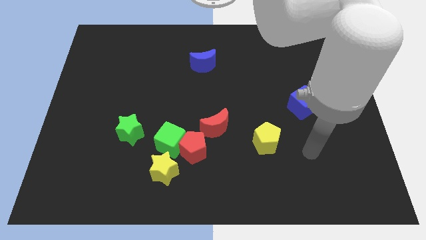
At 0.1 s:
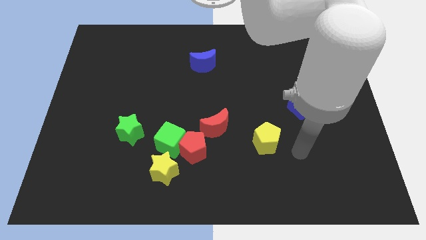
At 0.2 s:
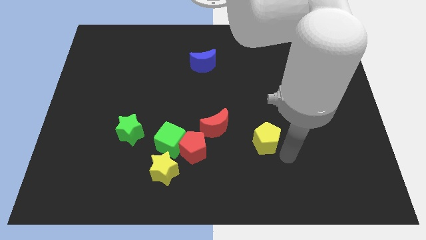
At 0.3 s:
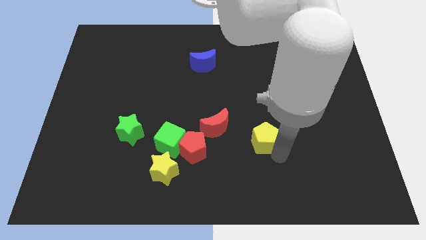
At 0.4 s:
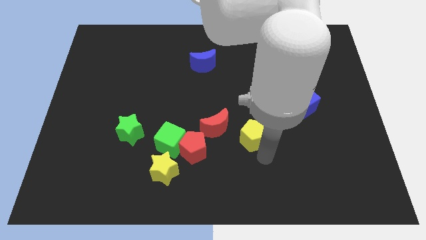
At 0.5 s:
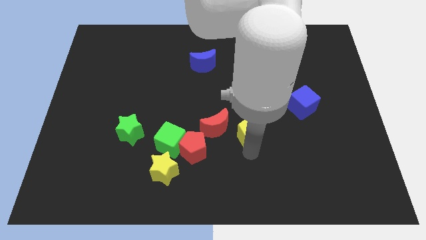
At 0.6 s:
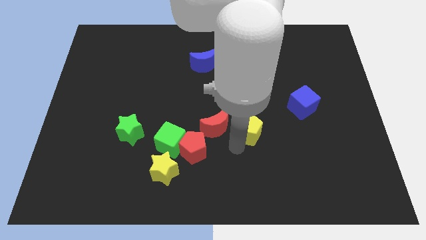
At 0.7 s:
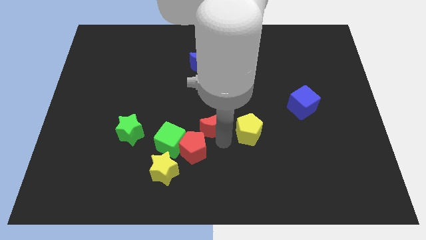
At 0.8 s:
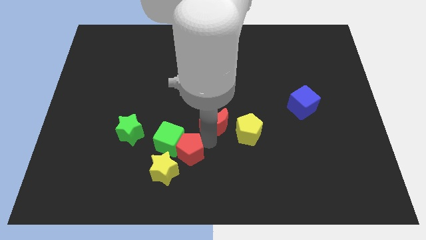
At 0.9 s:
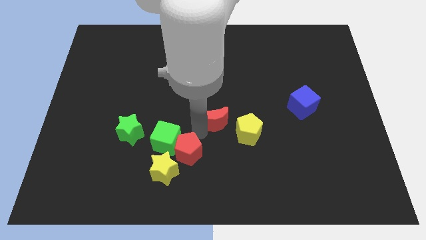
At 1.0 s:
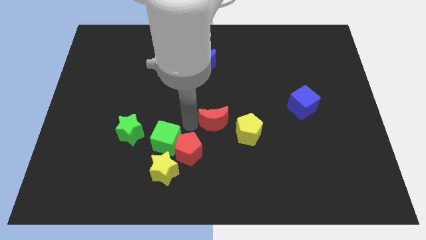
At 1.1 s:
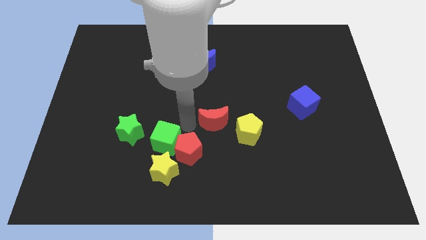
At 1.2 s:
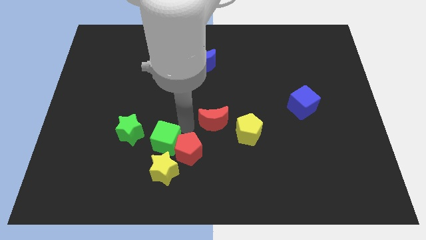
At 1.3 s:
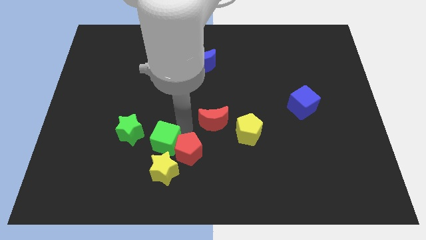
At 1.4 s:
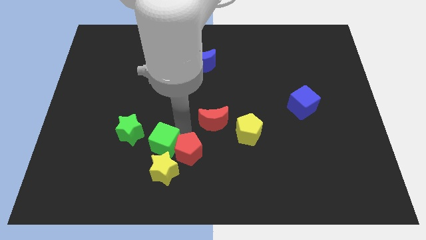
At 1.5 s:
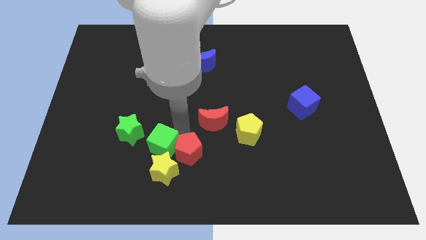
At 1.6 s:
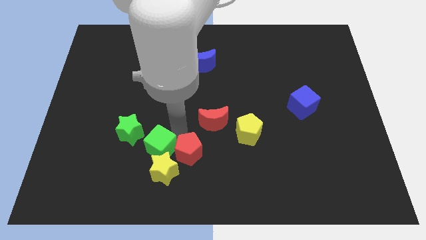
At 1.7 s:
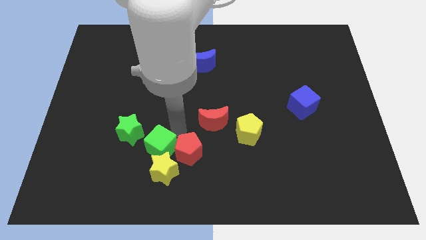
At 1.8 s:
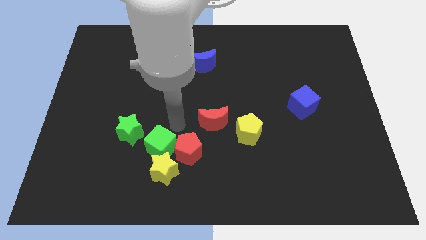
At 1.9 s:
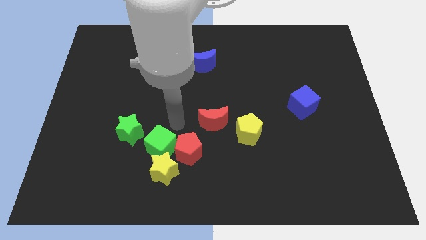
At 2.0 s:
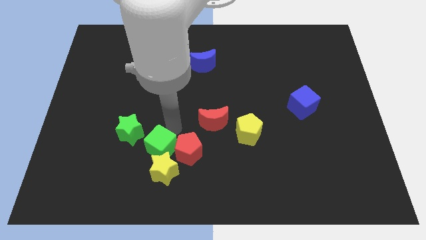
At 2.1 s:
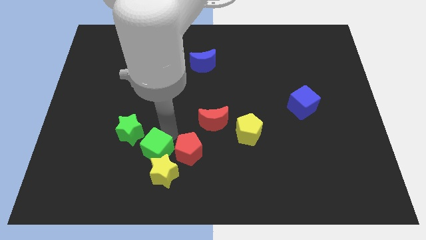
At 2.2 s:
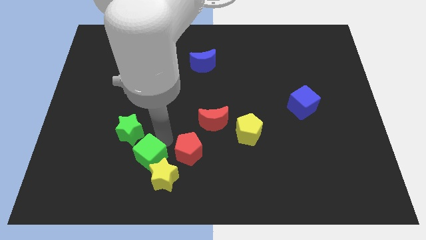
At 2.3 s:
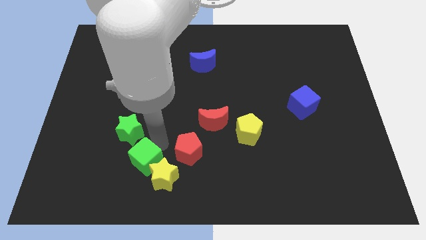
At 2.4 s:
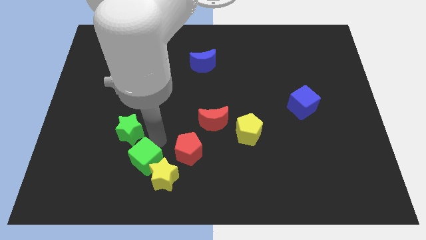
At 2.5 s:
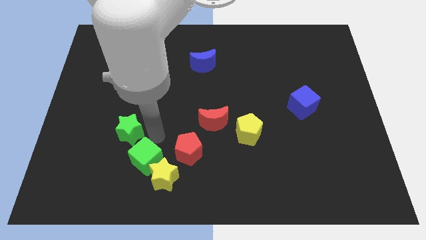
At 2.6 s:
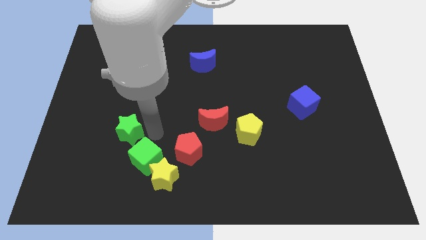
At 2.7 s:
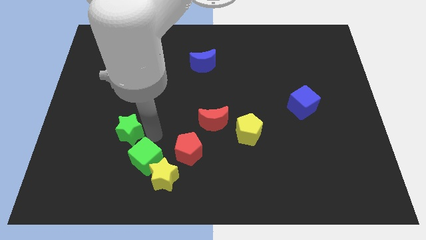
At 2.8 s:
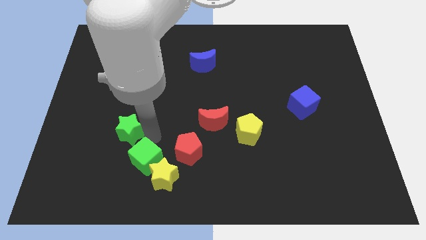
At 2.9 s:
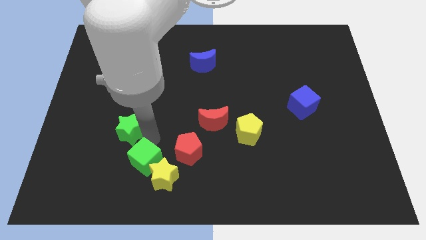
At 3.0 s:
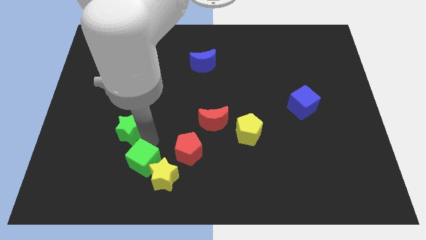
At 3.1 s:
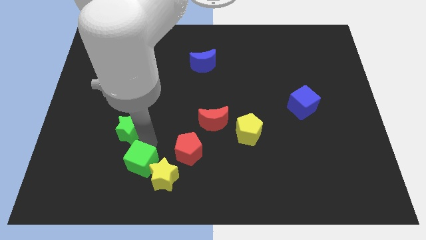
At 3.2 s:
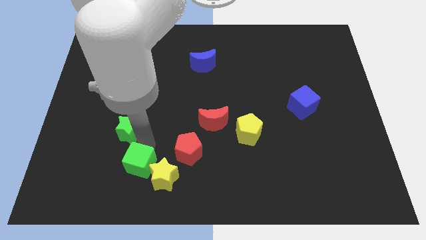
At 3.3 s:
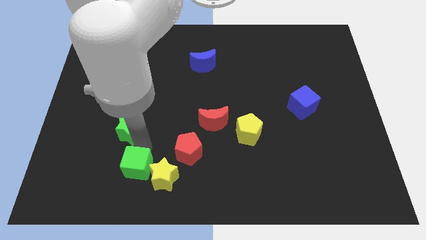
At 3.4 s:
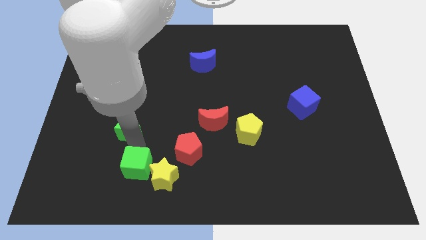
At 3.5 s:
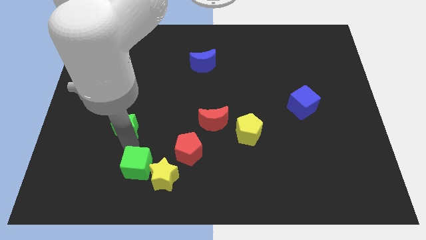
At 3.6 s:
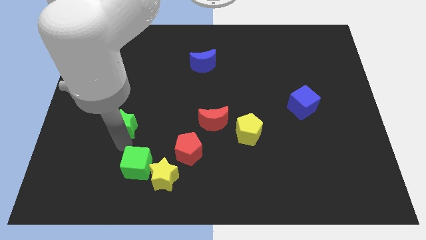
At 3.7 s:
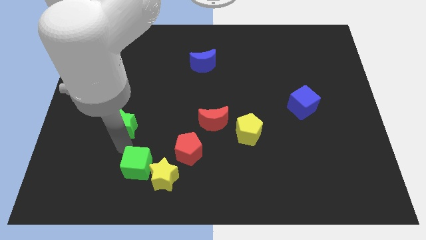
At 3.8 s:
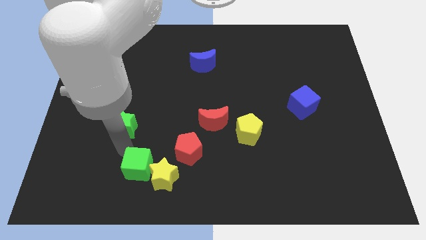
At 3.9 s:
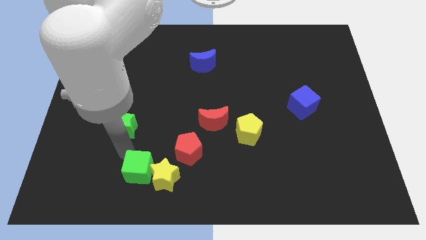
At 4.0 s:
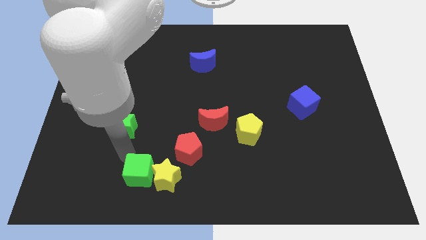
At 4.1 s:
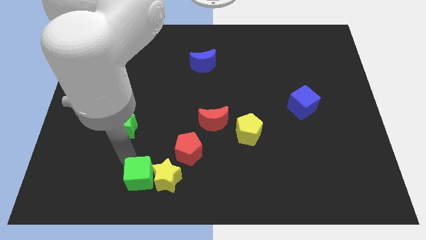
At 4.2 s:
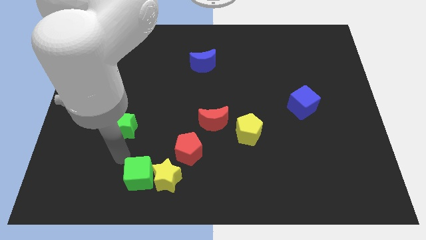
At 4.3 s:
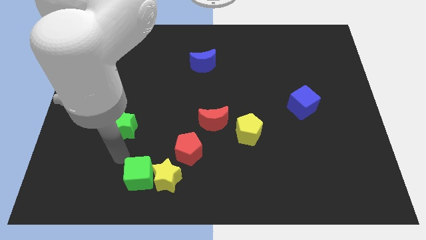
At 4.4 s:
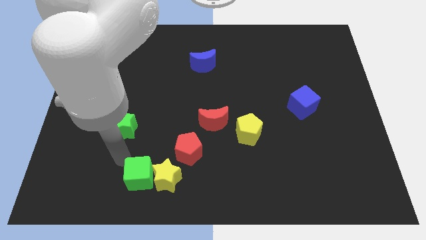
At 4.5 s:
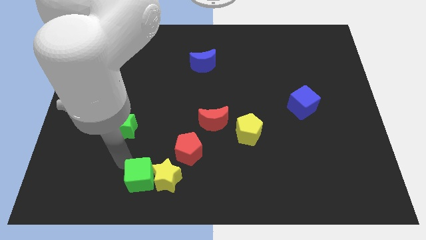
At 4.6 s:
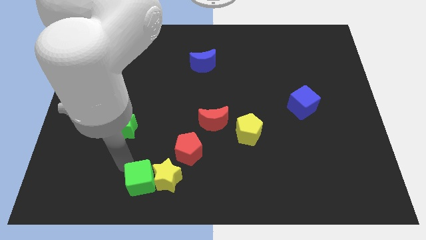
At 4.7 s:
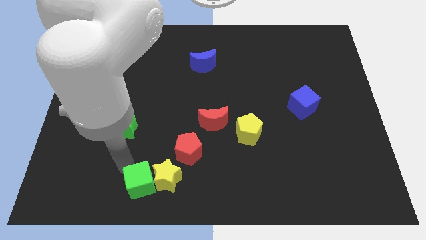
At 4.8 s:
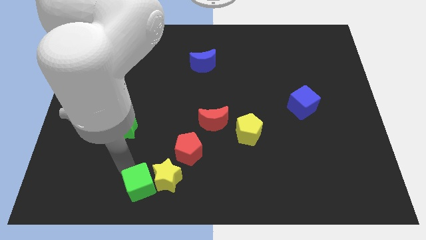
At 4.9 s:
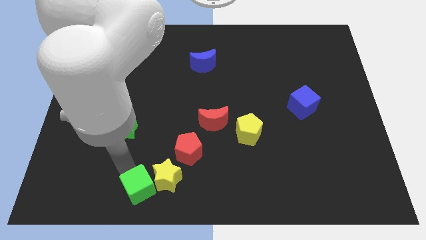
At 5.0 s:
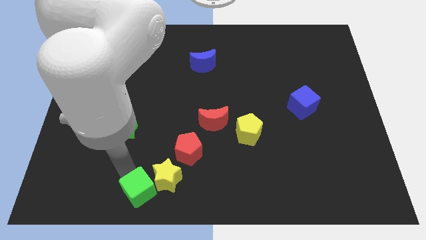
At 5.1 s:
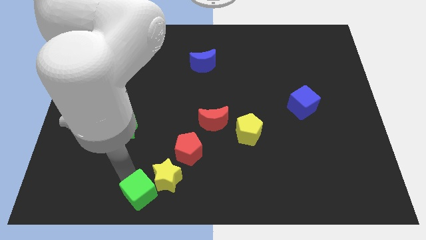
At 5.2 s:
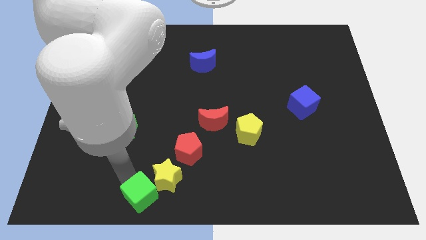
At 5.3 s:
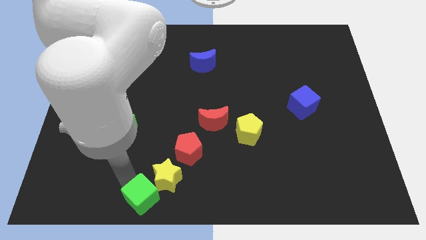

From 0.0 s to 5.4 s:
push the green cube to the bottom side

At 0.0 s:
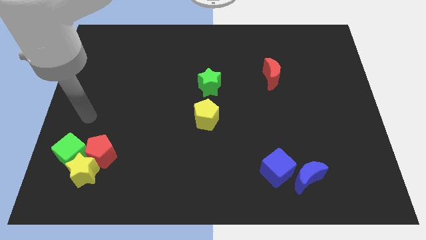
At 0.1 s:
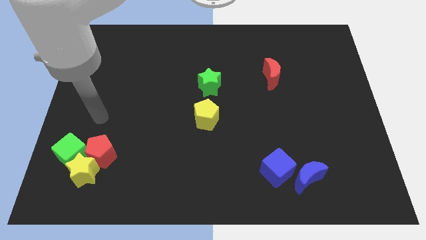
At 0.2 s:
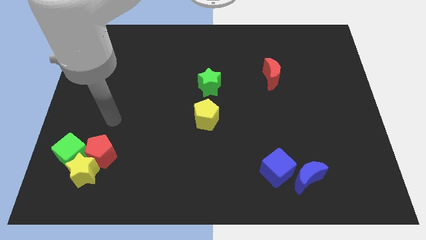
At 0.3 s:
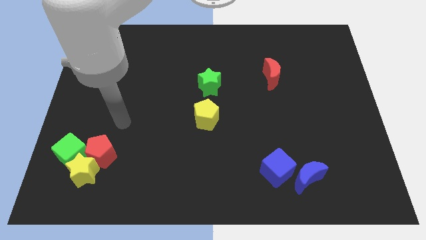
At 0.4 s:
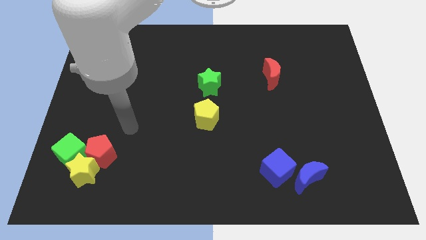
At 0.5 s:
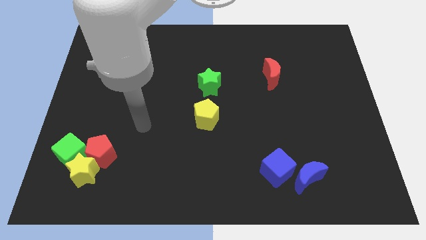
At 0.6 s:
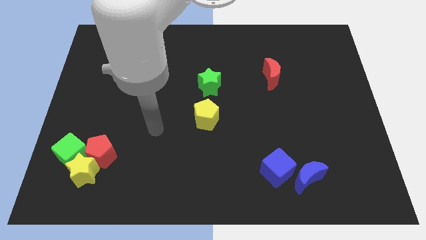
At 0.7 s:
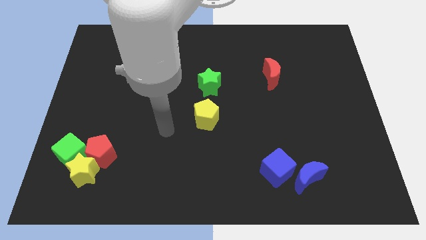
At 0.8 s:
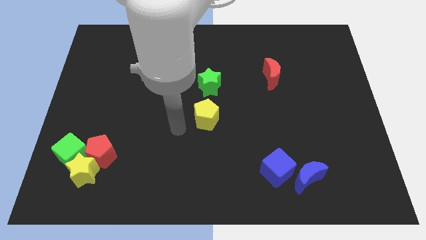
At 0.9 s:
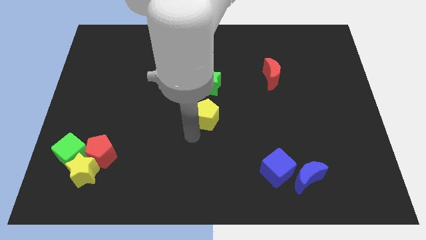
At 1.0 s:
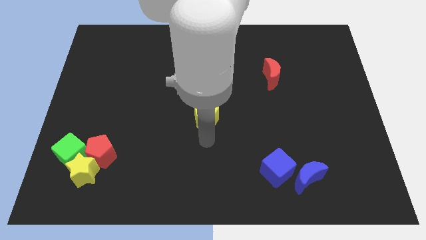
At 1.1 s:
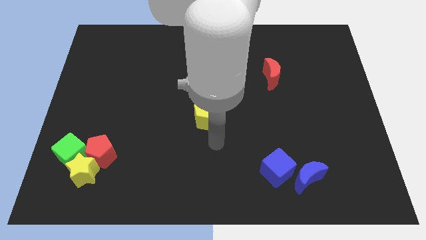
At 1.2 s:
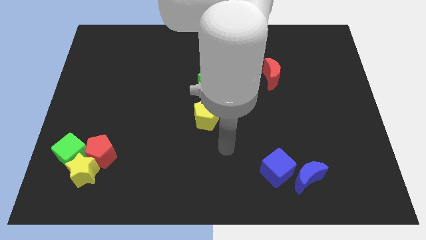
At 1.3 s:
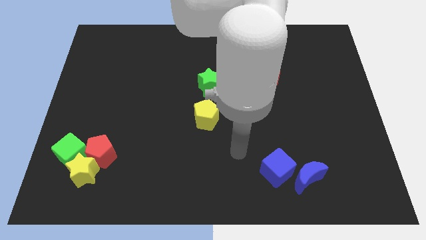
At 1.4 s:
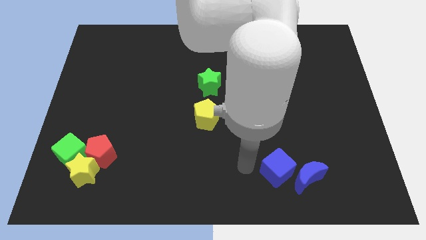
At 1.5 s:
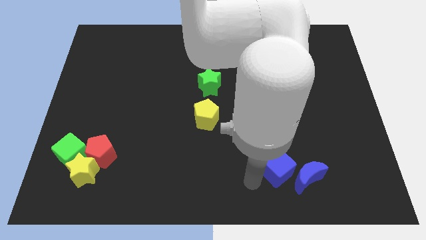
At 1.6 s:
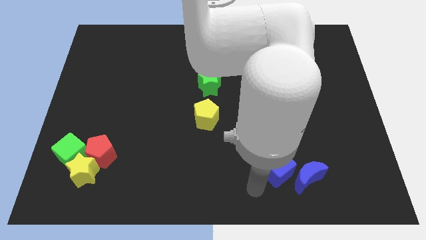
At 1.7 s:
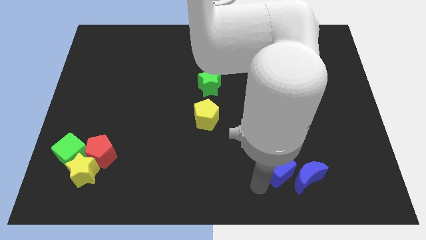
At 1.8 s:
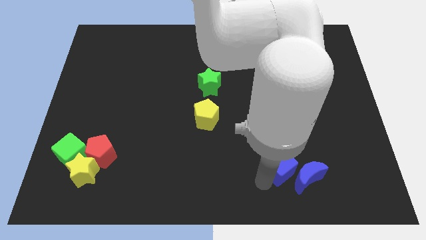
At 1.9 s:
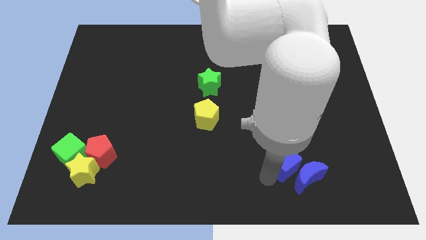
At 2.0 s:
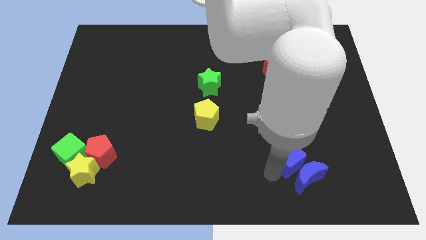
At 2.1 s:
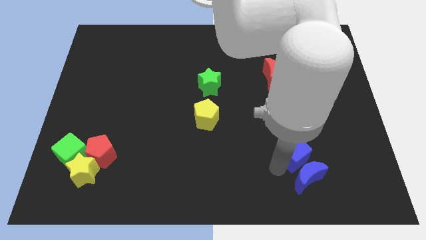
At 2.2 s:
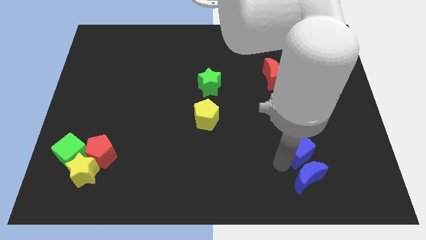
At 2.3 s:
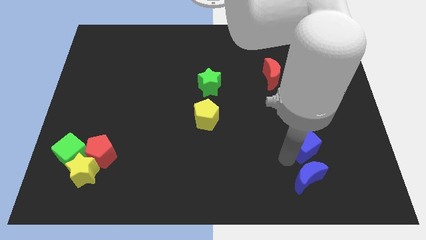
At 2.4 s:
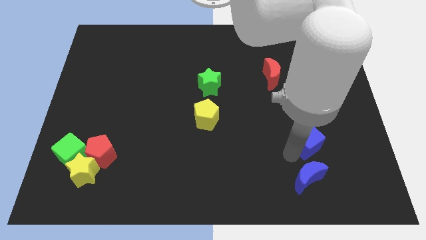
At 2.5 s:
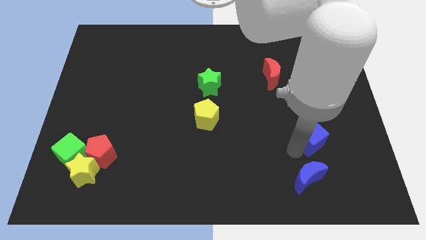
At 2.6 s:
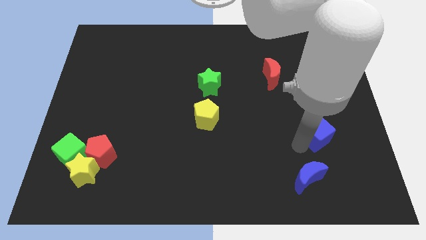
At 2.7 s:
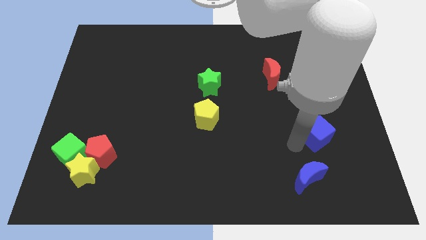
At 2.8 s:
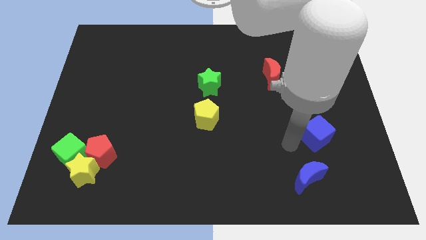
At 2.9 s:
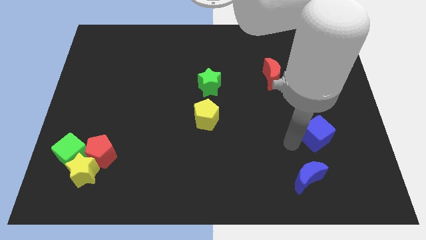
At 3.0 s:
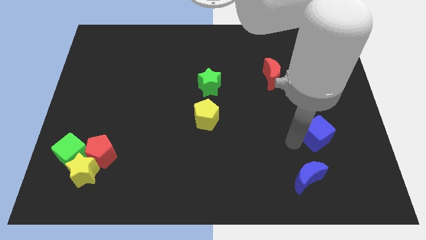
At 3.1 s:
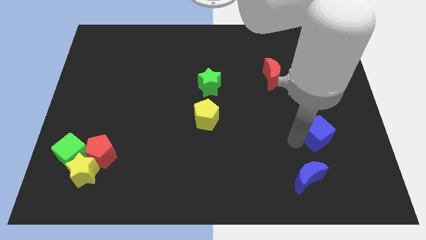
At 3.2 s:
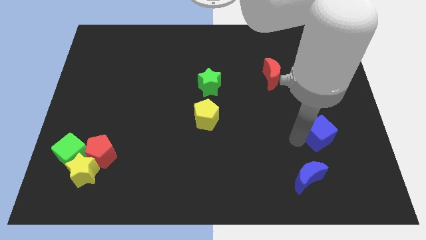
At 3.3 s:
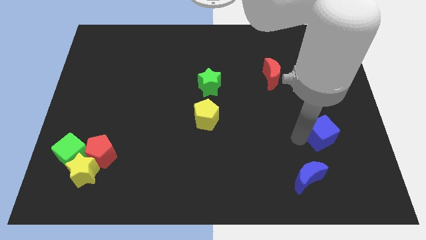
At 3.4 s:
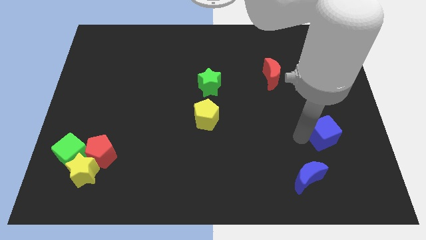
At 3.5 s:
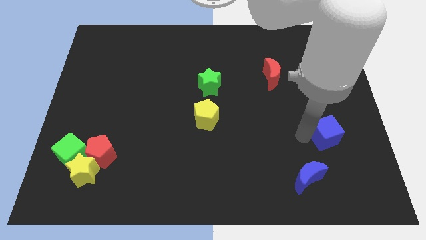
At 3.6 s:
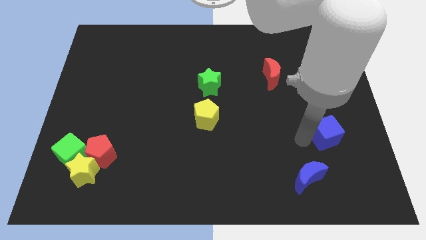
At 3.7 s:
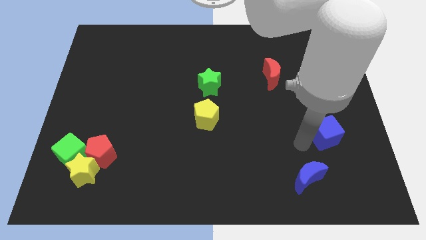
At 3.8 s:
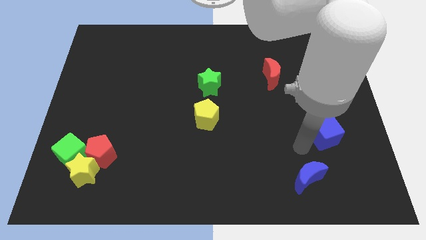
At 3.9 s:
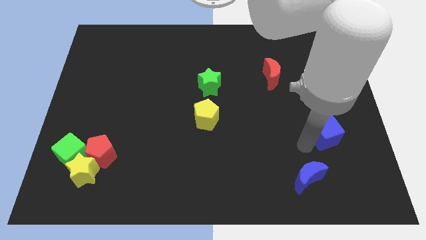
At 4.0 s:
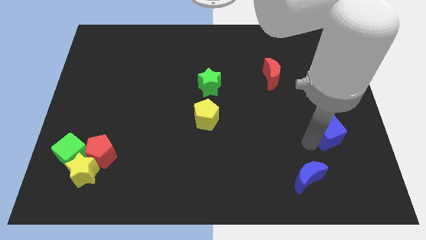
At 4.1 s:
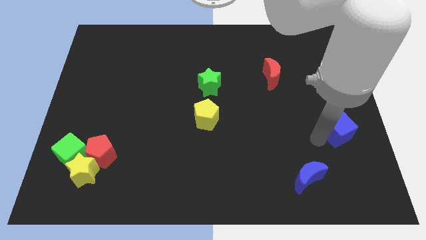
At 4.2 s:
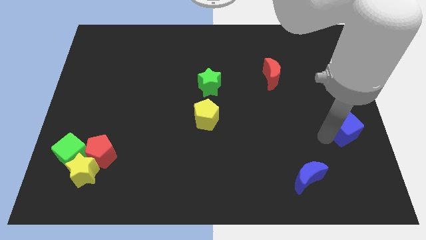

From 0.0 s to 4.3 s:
push the blue cube to the right side
